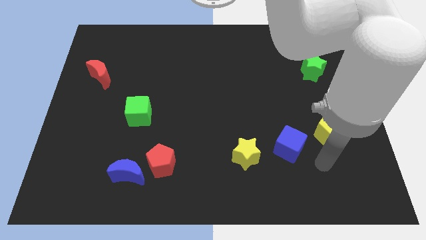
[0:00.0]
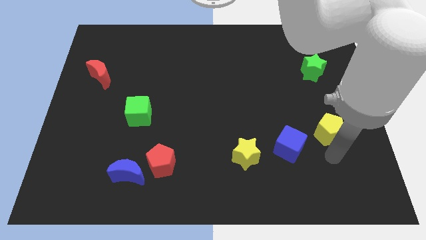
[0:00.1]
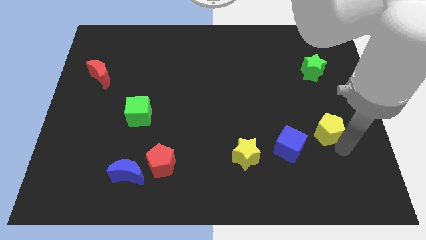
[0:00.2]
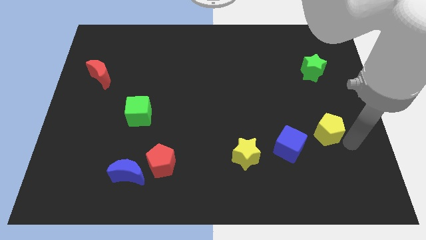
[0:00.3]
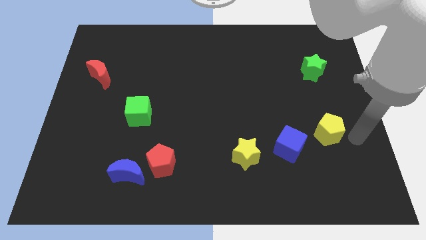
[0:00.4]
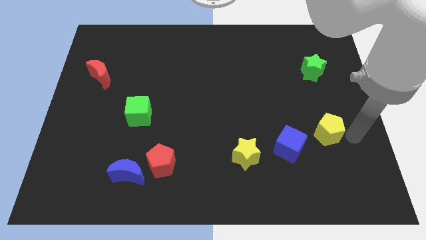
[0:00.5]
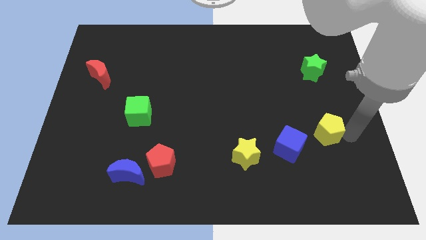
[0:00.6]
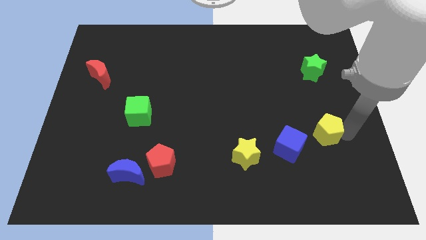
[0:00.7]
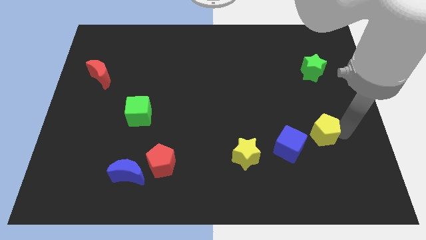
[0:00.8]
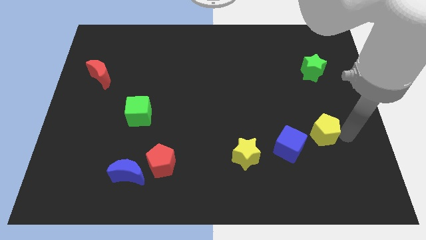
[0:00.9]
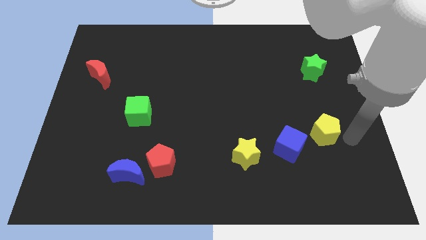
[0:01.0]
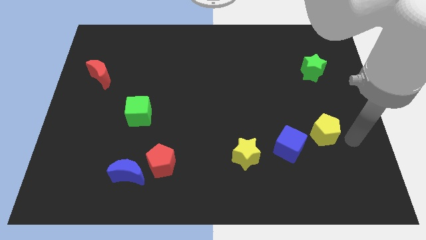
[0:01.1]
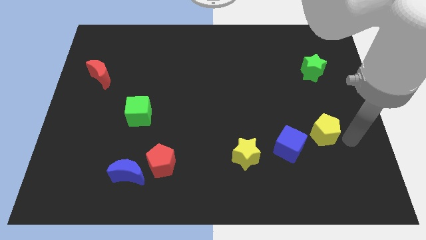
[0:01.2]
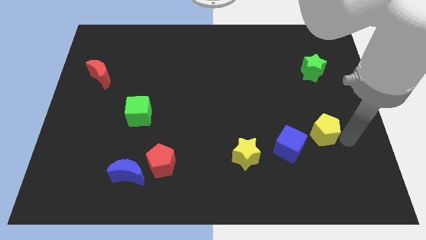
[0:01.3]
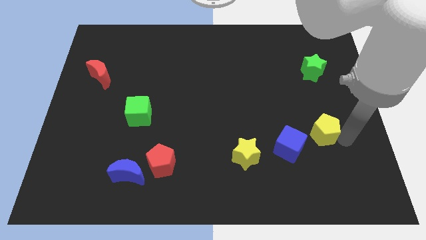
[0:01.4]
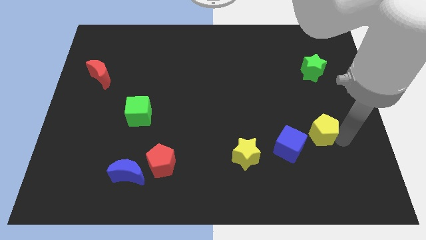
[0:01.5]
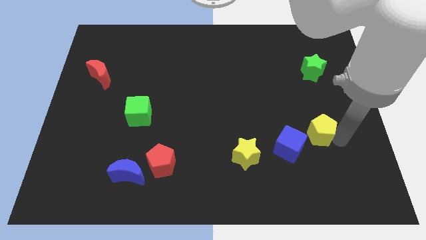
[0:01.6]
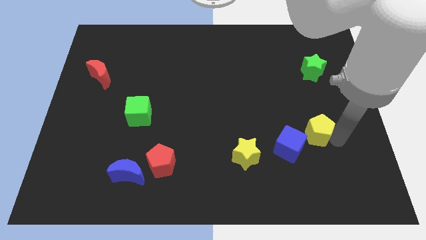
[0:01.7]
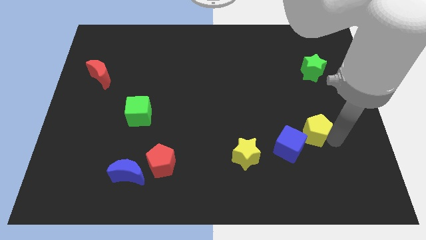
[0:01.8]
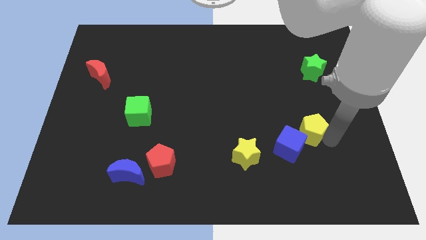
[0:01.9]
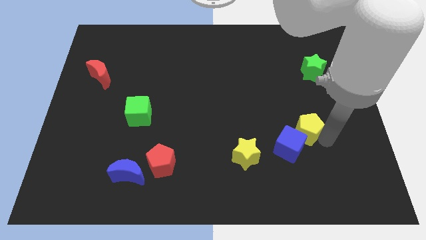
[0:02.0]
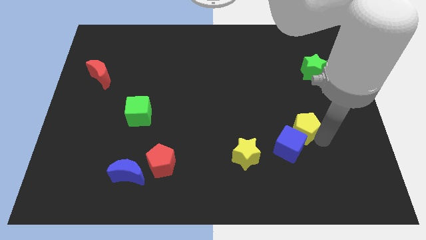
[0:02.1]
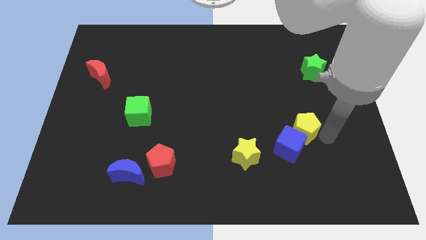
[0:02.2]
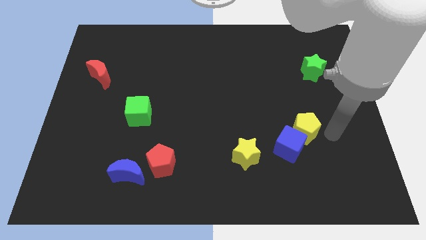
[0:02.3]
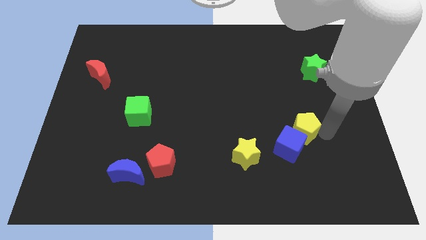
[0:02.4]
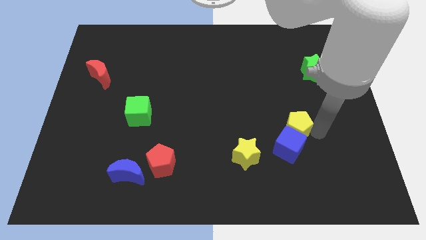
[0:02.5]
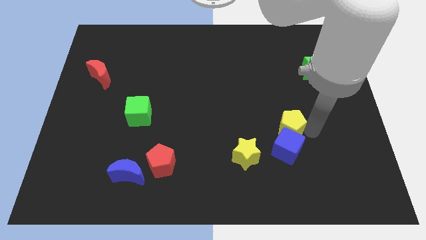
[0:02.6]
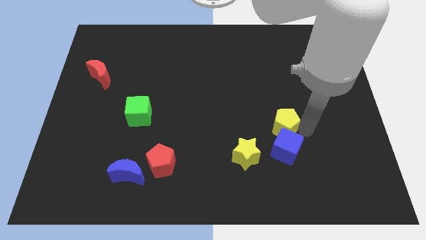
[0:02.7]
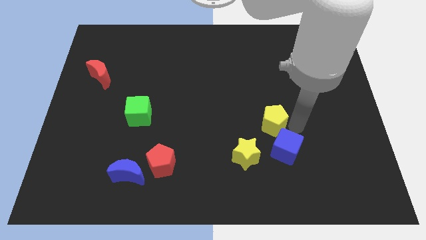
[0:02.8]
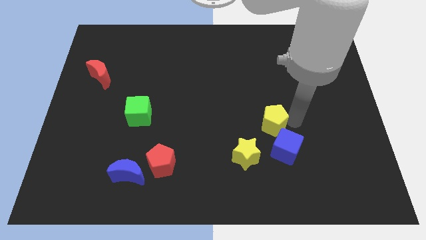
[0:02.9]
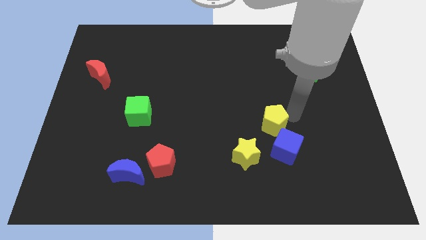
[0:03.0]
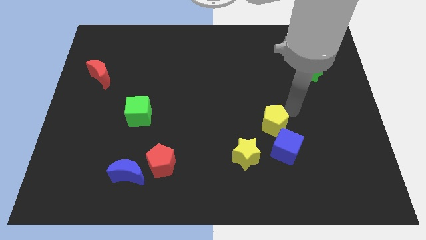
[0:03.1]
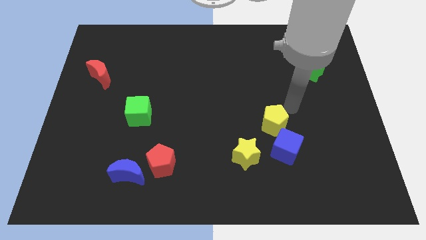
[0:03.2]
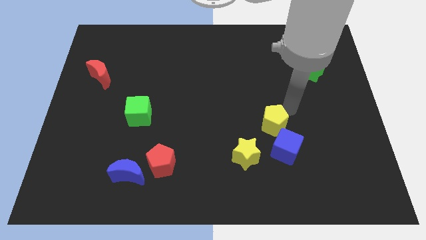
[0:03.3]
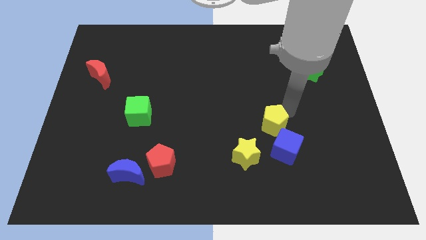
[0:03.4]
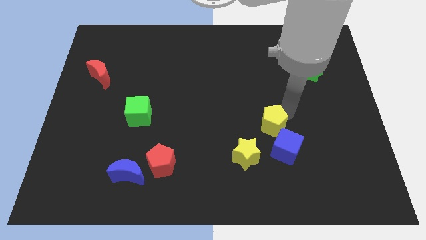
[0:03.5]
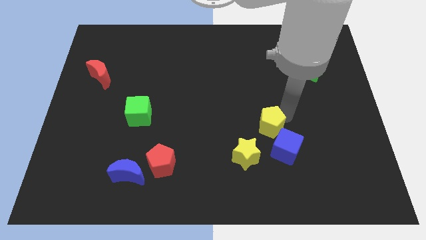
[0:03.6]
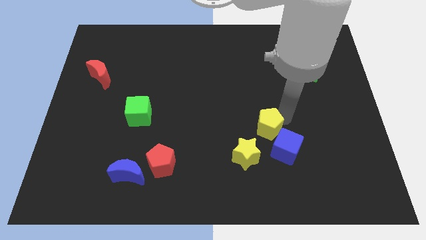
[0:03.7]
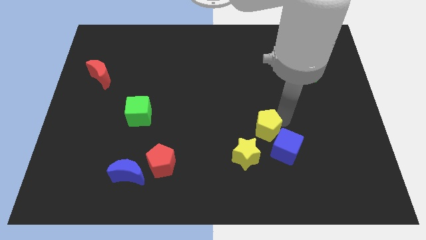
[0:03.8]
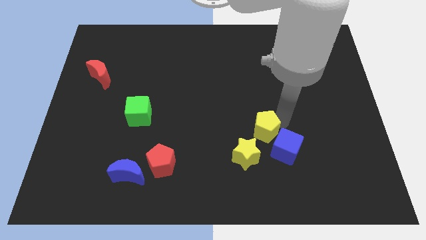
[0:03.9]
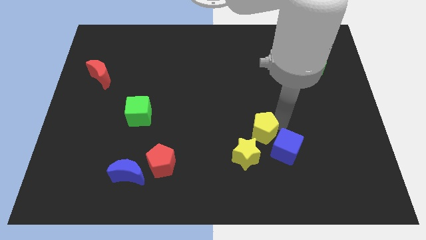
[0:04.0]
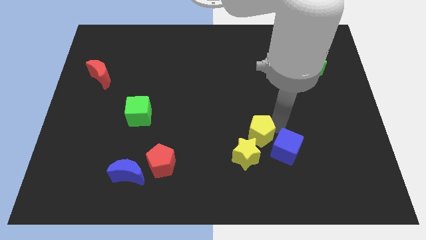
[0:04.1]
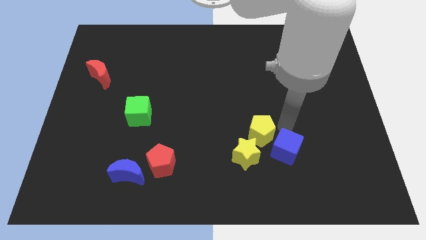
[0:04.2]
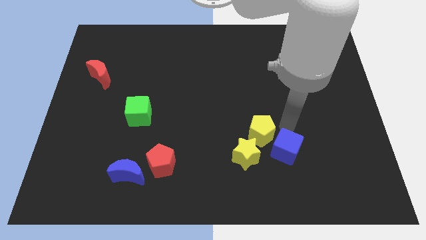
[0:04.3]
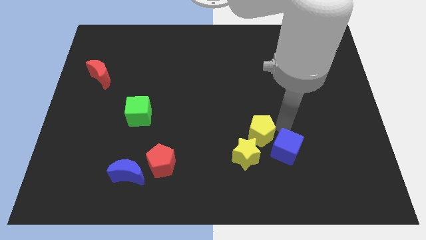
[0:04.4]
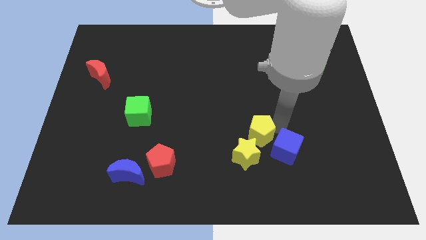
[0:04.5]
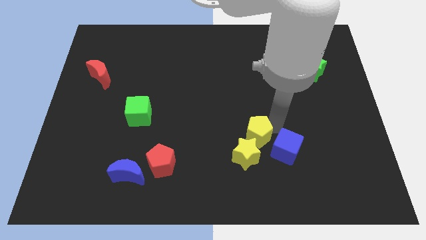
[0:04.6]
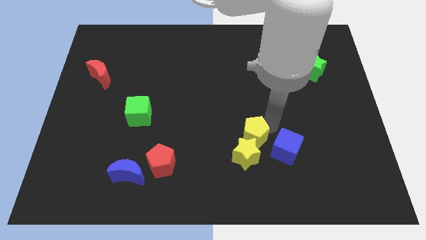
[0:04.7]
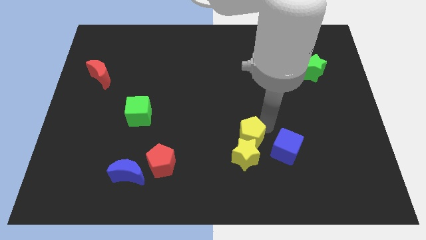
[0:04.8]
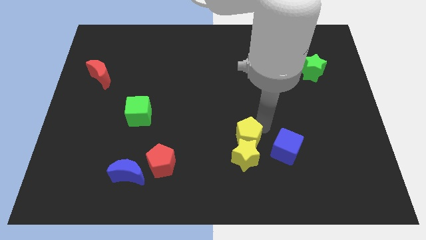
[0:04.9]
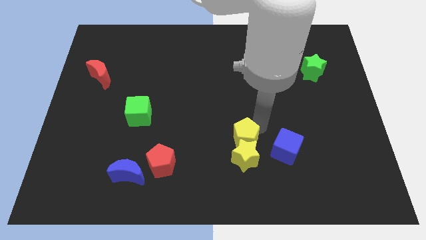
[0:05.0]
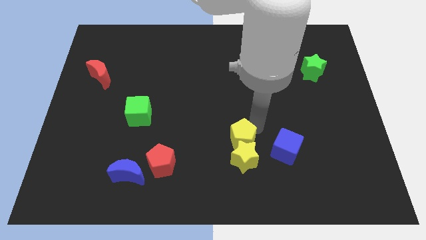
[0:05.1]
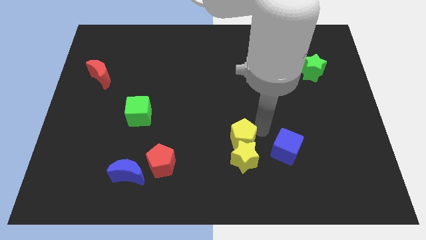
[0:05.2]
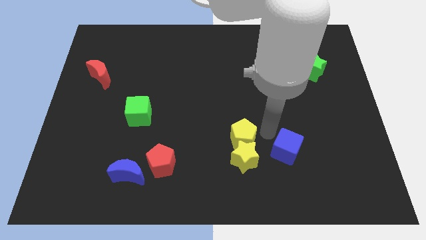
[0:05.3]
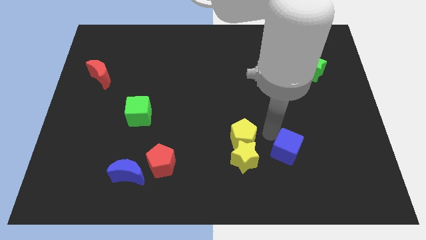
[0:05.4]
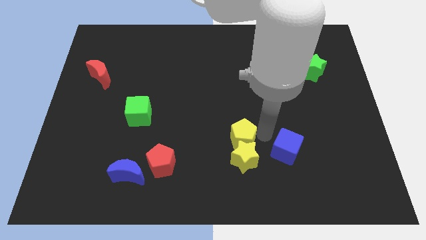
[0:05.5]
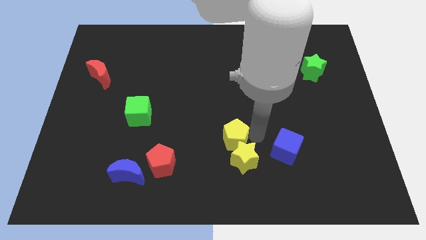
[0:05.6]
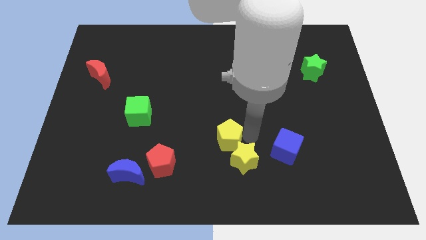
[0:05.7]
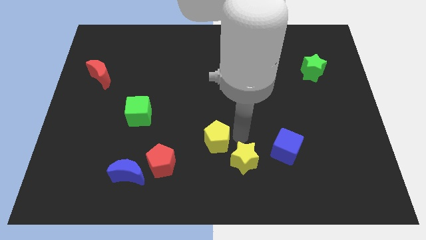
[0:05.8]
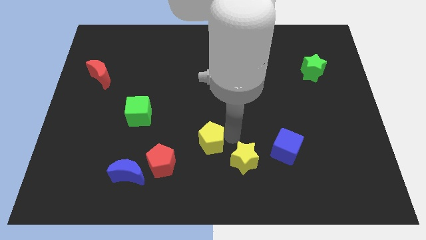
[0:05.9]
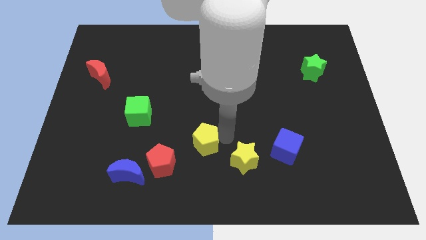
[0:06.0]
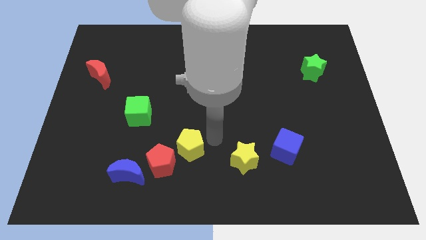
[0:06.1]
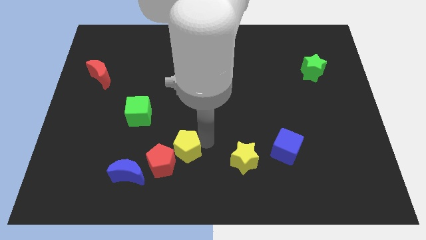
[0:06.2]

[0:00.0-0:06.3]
move the yellow pentagon next to the red pentagon

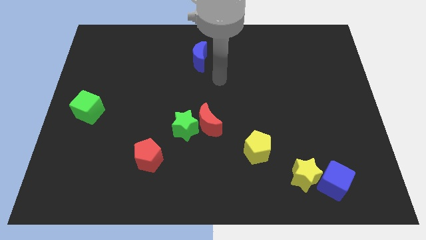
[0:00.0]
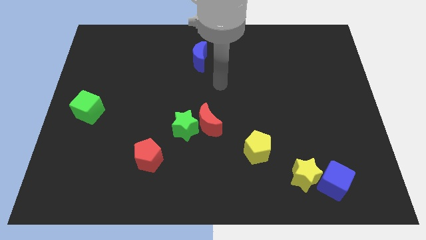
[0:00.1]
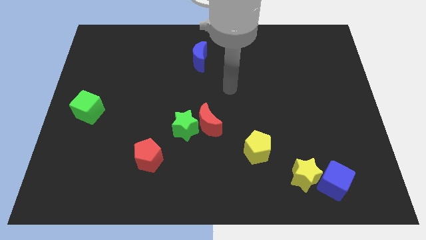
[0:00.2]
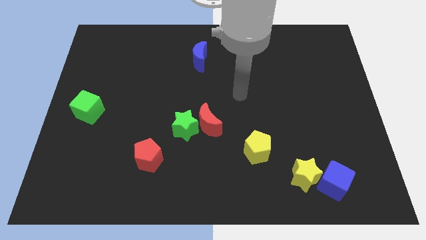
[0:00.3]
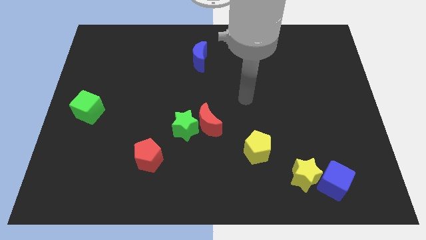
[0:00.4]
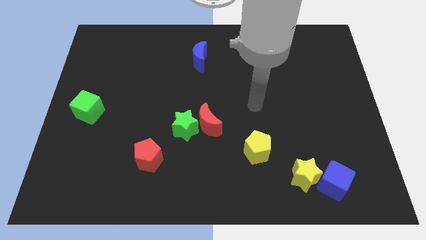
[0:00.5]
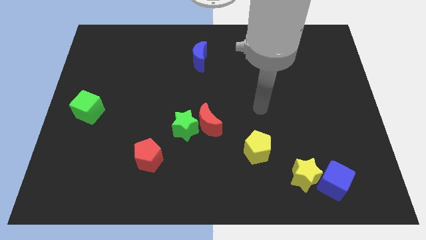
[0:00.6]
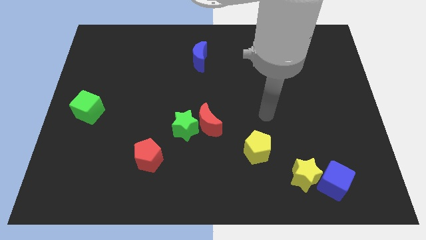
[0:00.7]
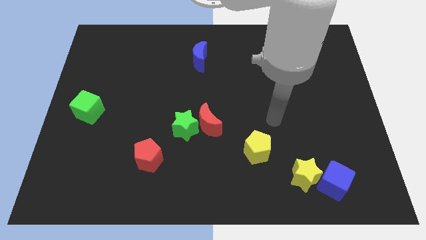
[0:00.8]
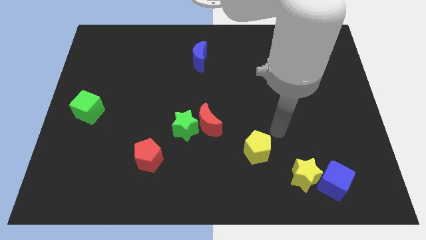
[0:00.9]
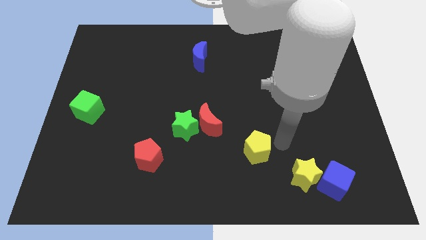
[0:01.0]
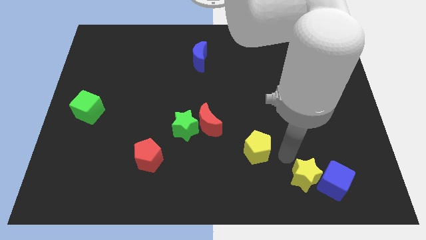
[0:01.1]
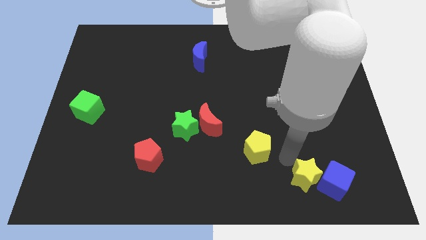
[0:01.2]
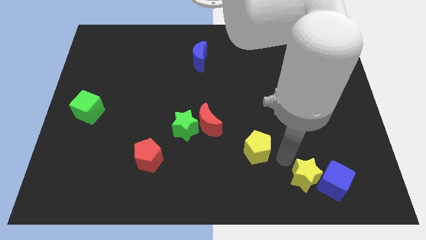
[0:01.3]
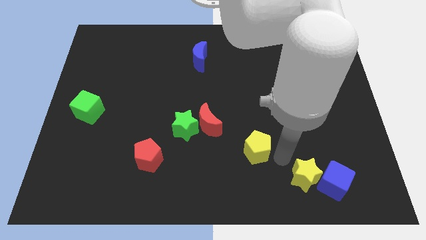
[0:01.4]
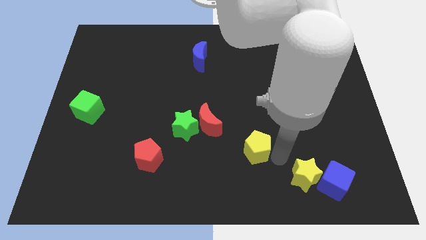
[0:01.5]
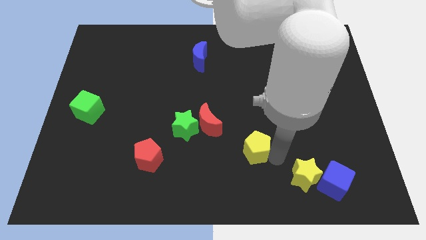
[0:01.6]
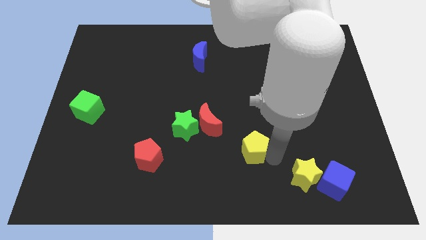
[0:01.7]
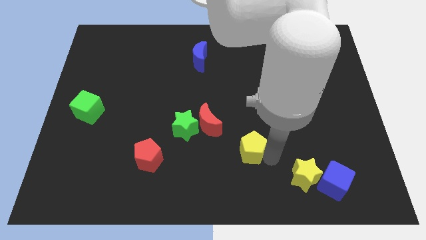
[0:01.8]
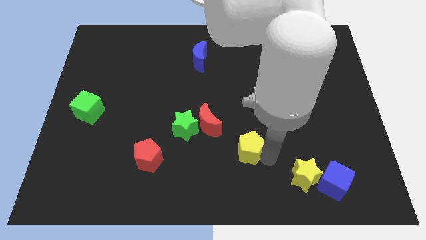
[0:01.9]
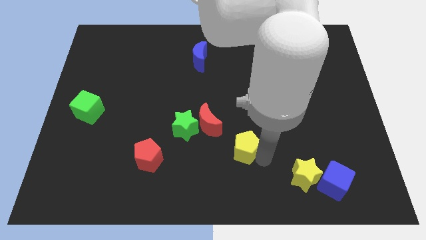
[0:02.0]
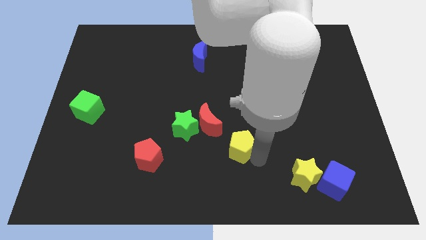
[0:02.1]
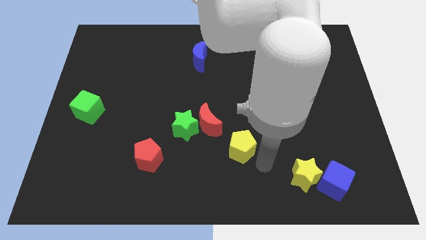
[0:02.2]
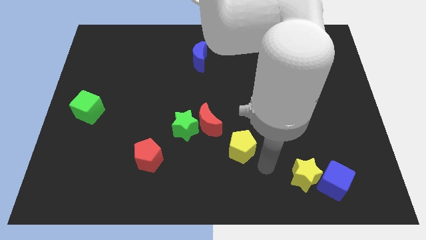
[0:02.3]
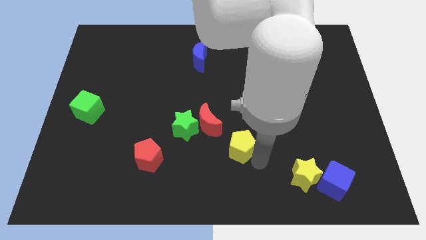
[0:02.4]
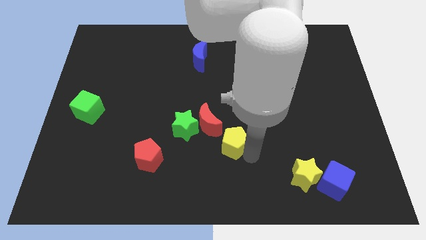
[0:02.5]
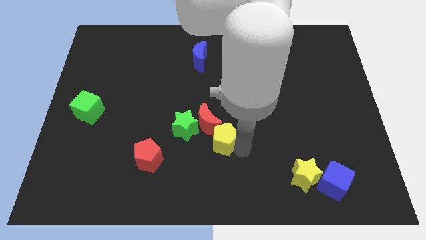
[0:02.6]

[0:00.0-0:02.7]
push the yellow pentagon next to the red moon
